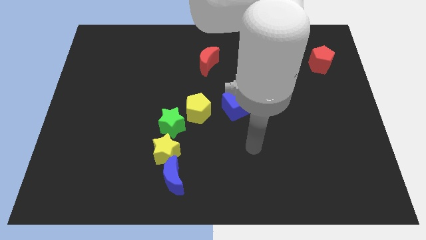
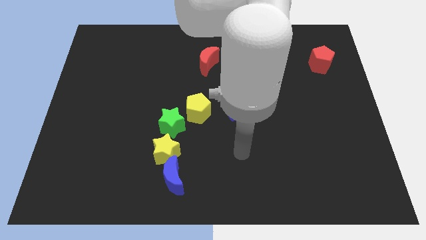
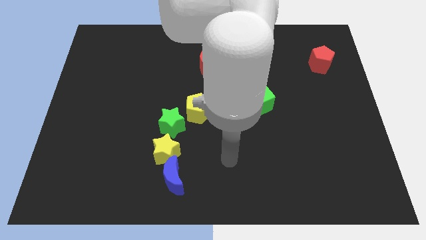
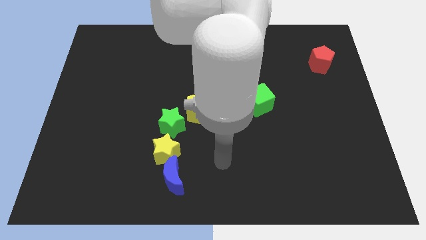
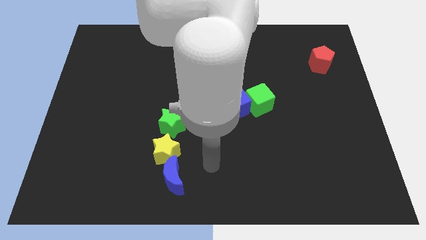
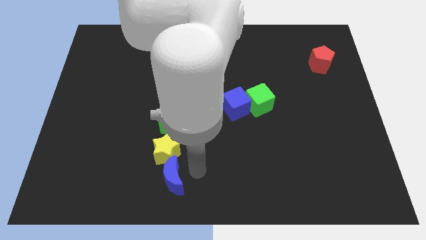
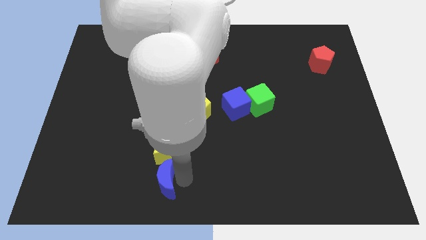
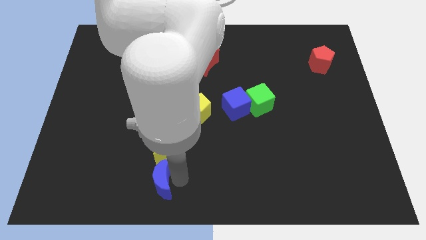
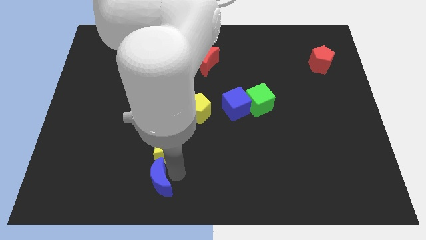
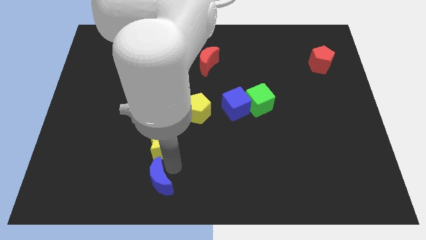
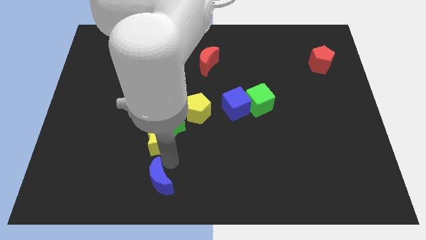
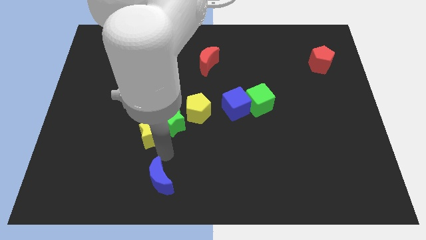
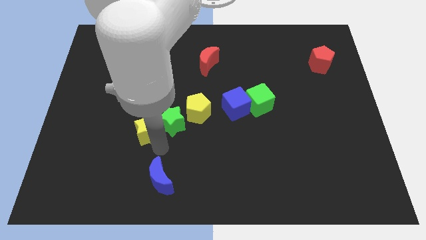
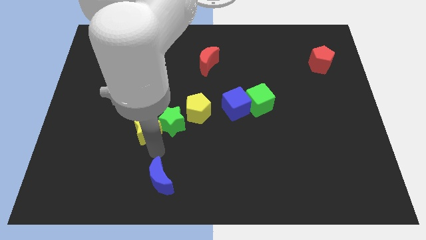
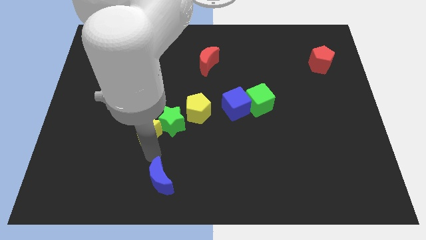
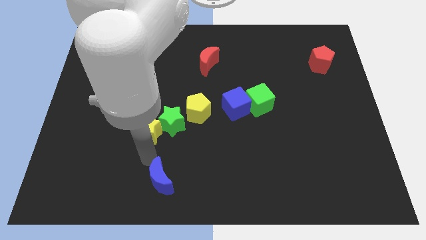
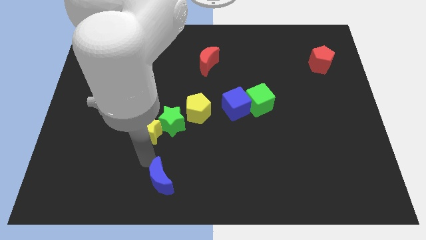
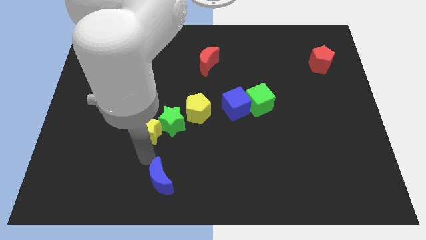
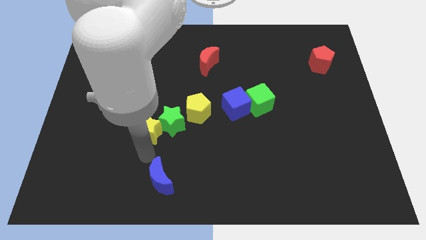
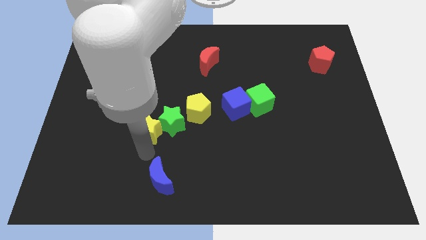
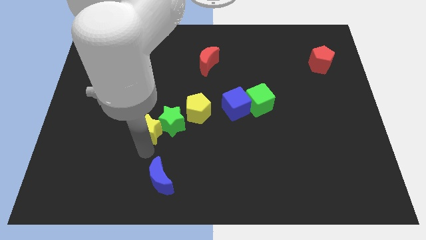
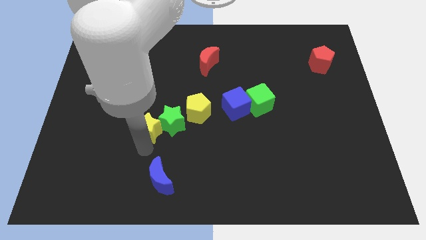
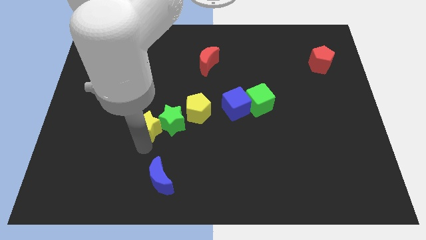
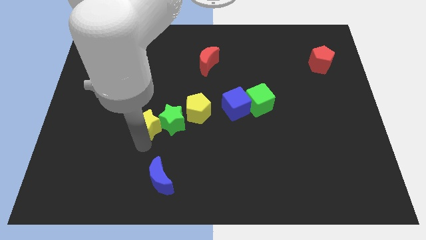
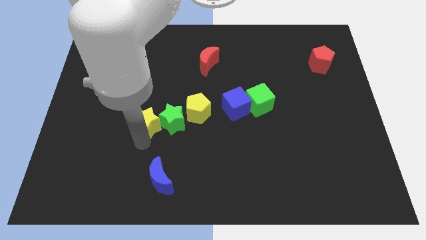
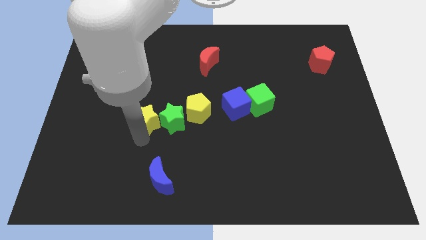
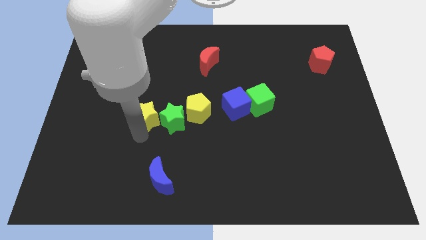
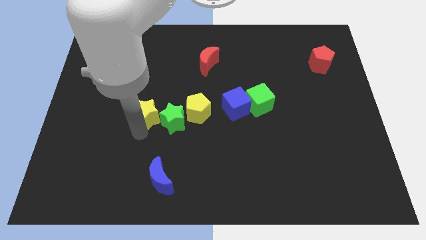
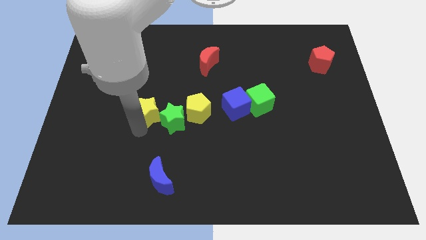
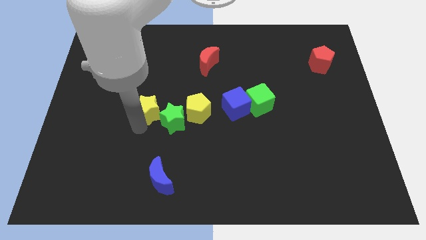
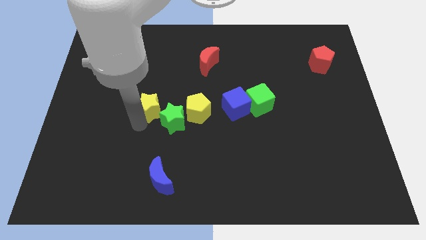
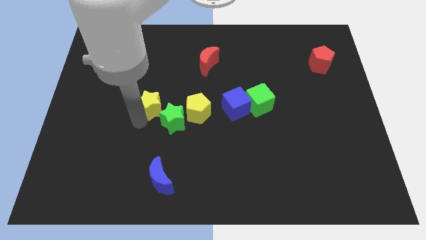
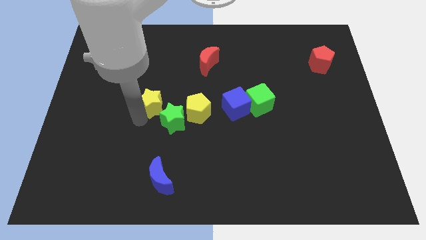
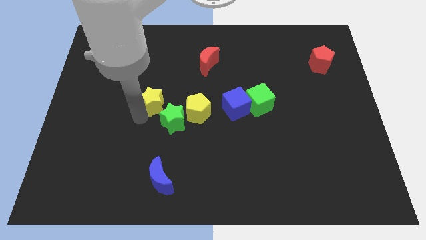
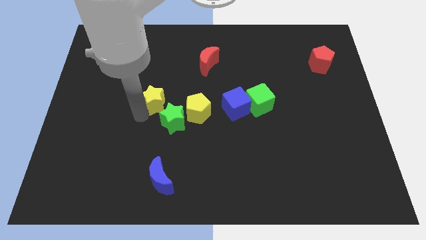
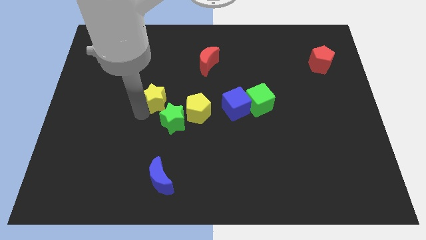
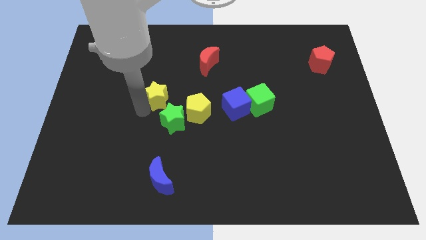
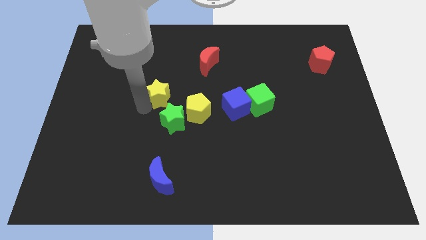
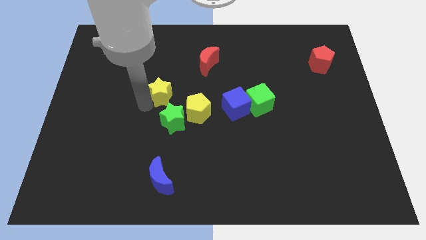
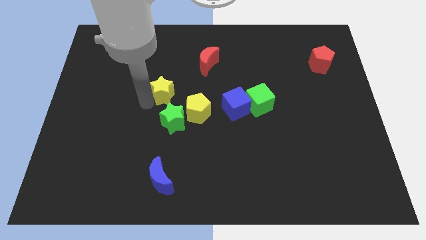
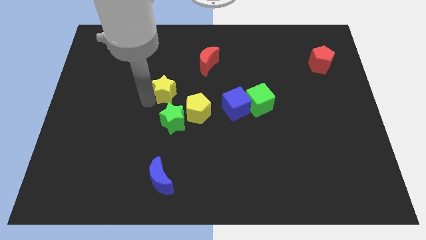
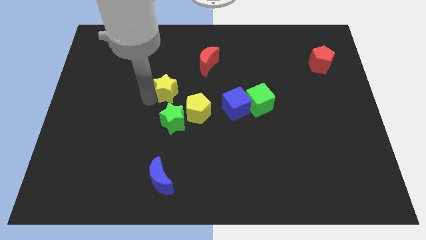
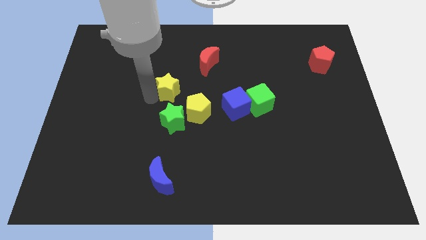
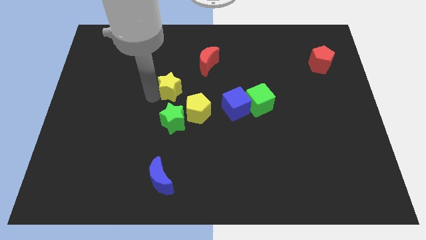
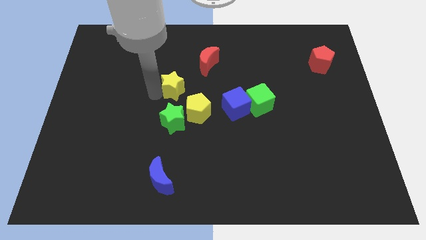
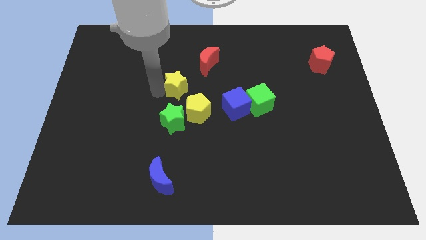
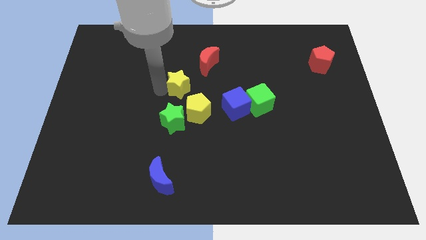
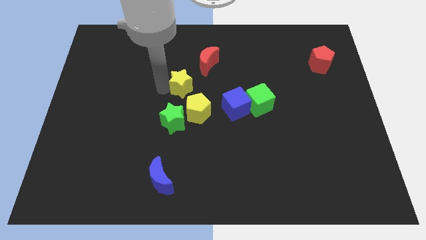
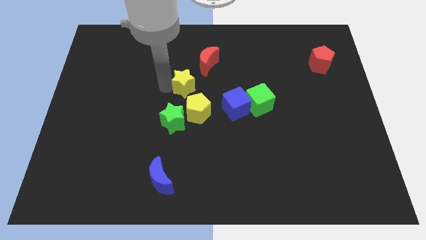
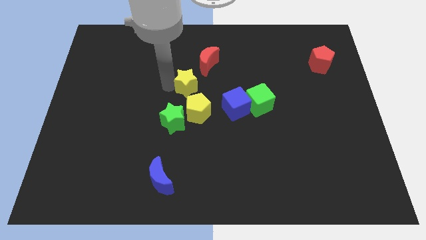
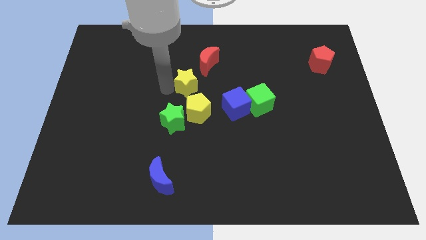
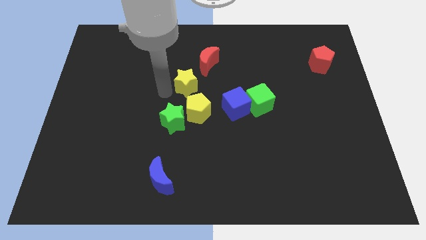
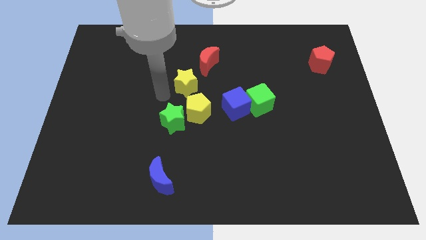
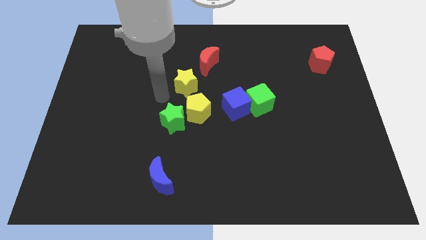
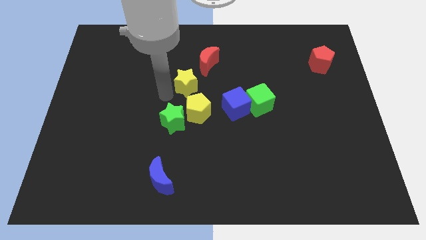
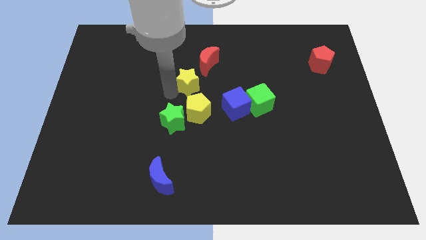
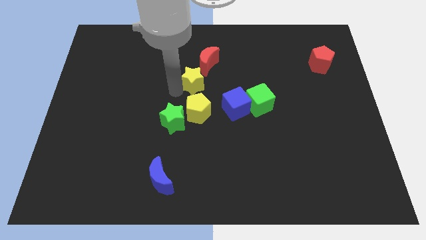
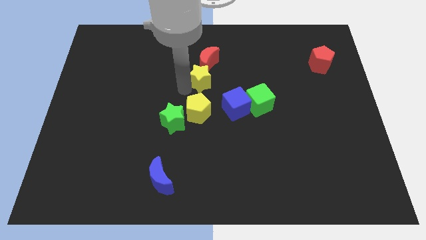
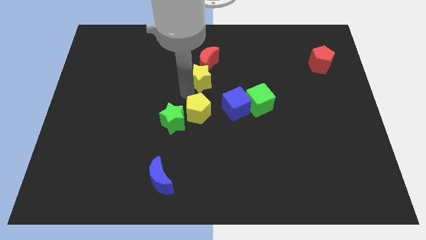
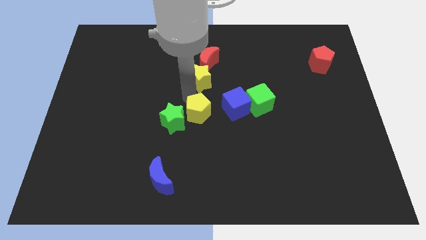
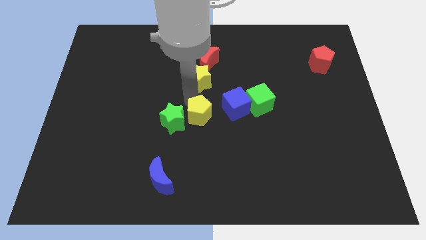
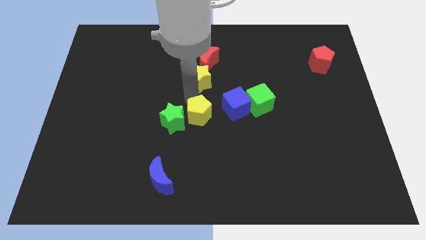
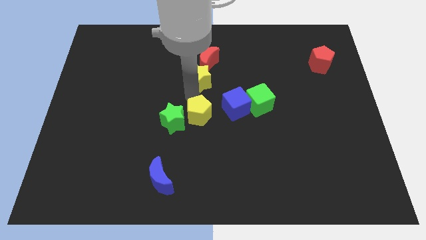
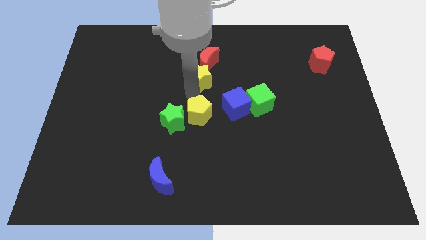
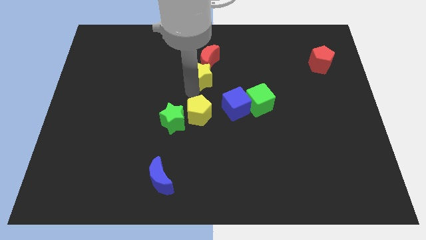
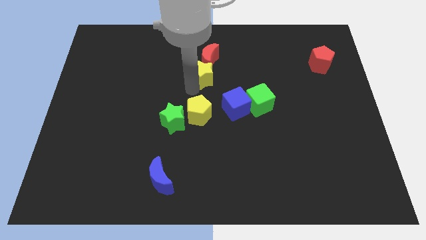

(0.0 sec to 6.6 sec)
push the yellow star to the red moon
